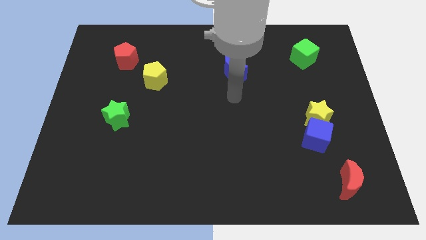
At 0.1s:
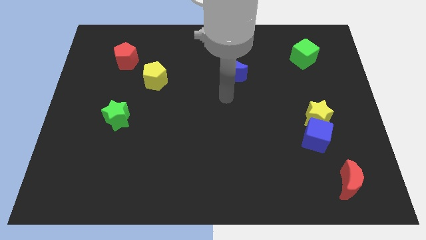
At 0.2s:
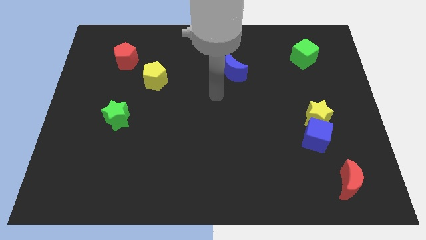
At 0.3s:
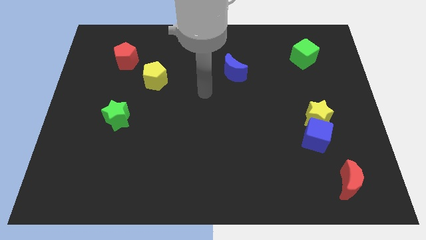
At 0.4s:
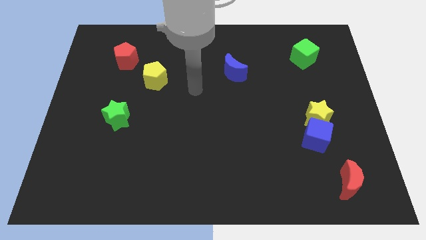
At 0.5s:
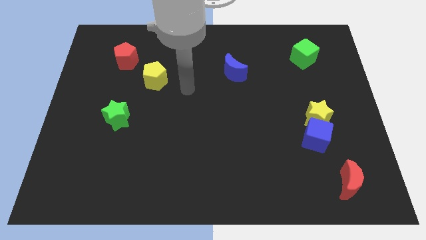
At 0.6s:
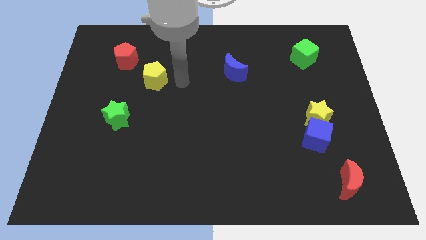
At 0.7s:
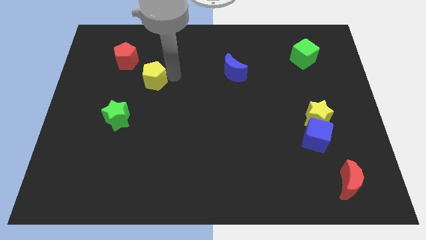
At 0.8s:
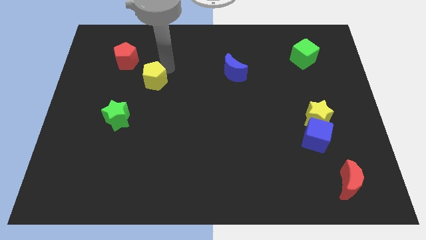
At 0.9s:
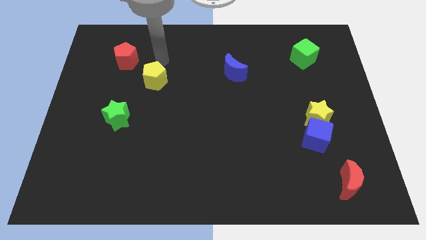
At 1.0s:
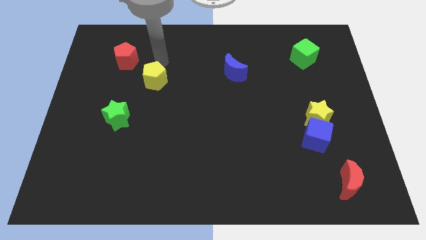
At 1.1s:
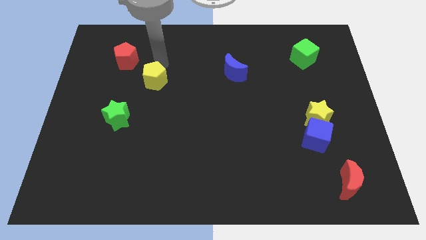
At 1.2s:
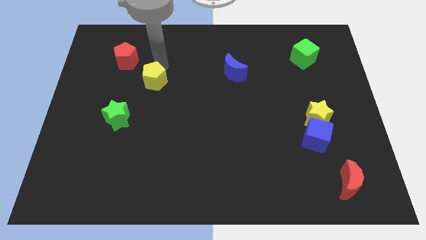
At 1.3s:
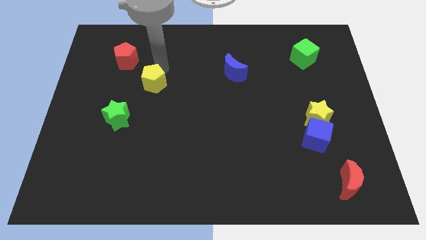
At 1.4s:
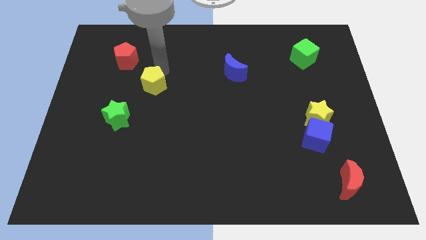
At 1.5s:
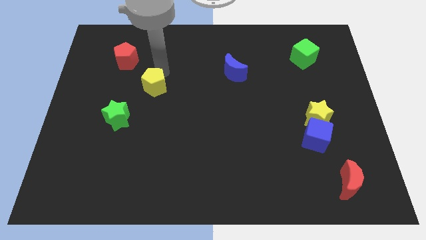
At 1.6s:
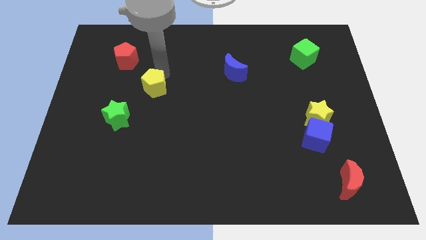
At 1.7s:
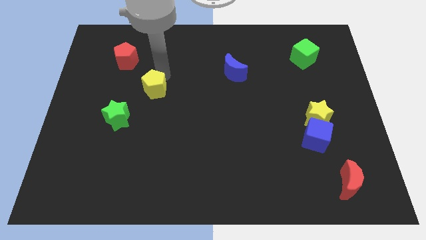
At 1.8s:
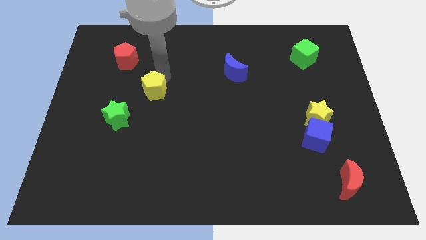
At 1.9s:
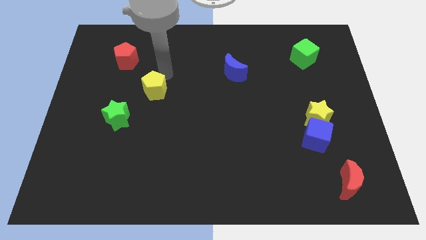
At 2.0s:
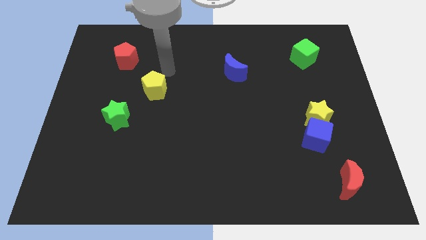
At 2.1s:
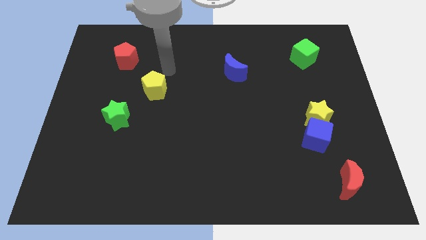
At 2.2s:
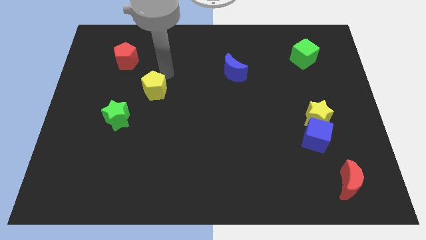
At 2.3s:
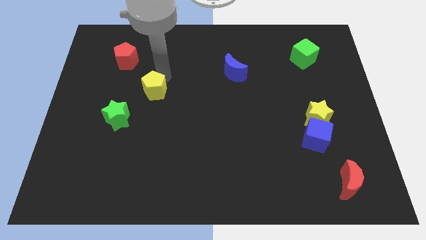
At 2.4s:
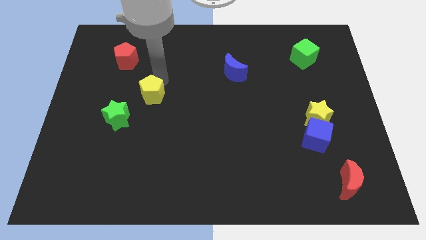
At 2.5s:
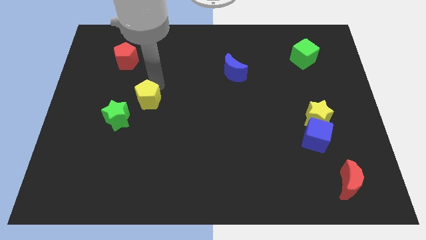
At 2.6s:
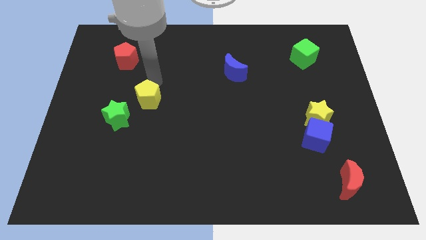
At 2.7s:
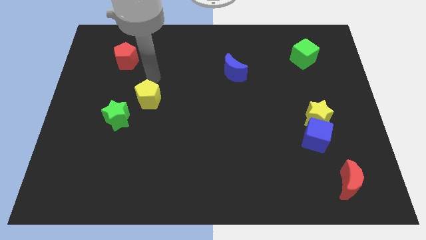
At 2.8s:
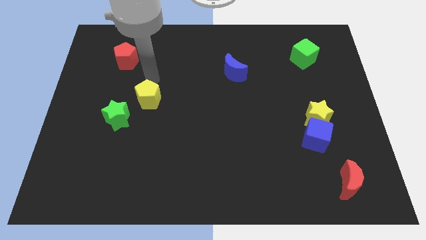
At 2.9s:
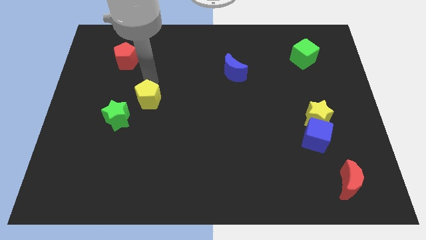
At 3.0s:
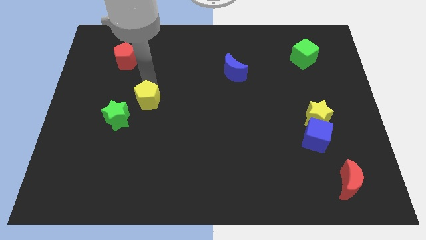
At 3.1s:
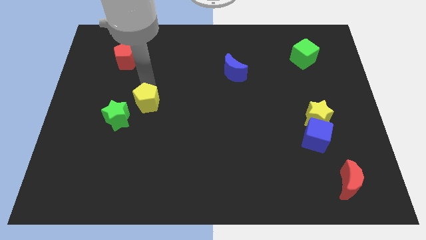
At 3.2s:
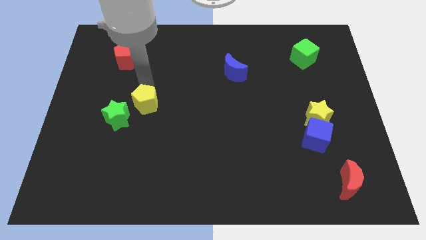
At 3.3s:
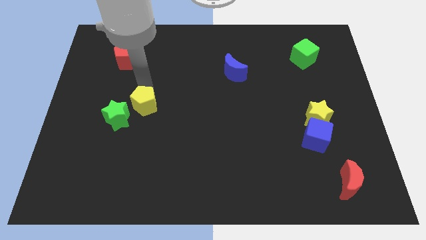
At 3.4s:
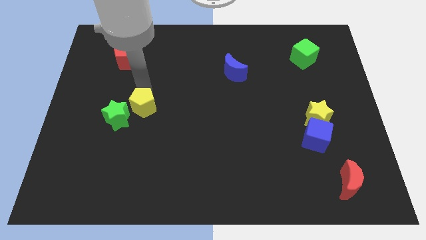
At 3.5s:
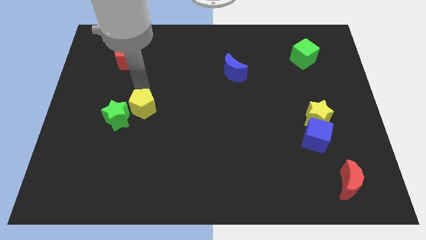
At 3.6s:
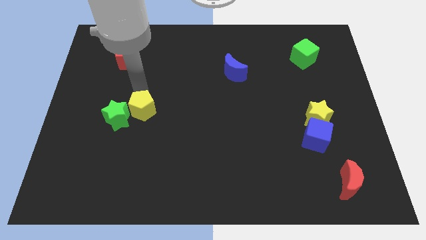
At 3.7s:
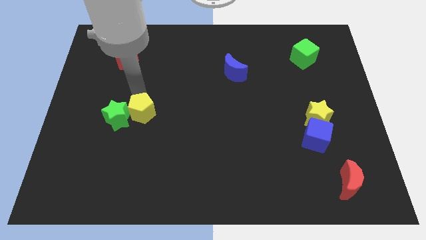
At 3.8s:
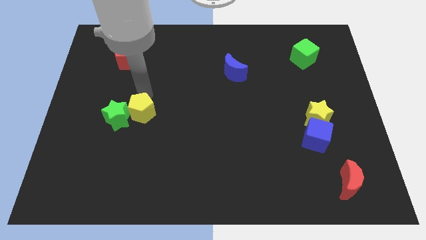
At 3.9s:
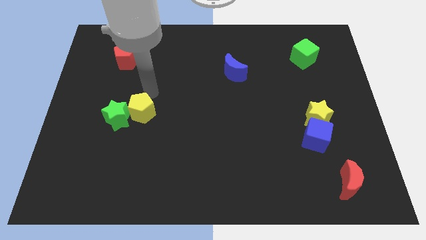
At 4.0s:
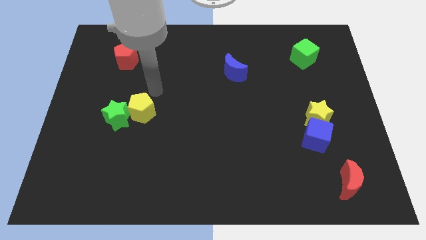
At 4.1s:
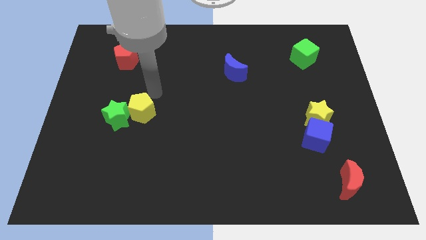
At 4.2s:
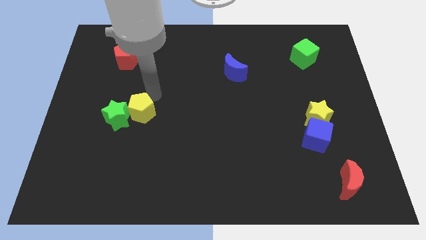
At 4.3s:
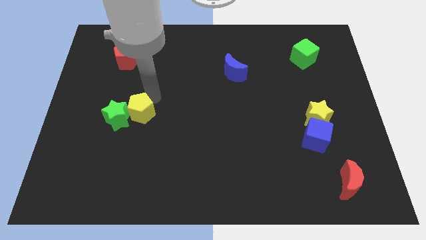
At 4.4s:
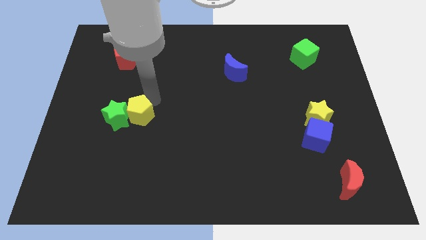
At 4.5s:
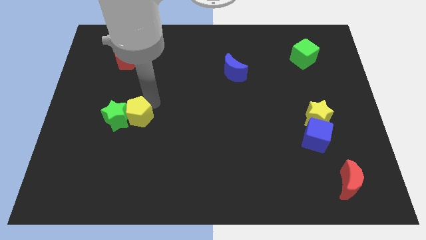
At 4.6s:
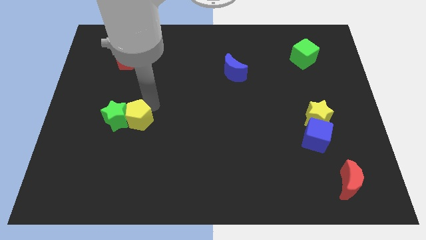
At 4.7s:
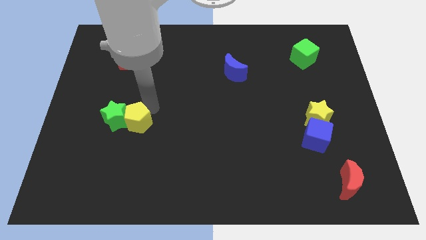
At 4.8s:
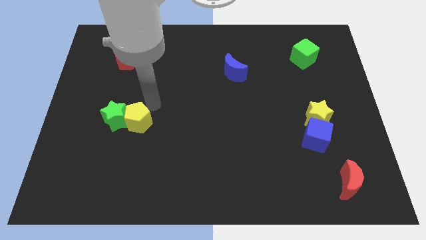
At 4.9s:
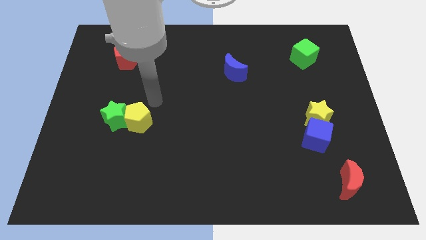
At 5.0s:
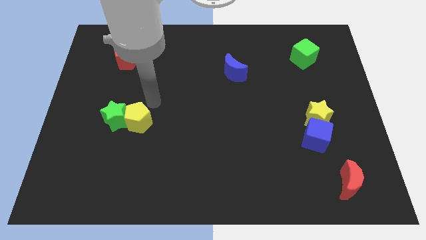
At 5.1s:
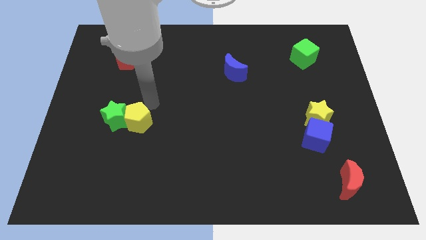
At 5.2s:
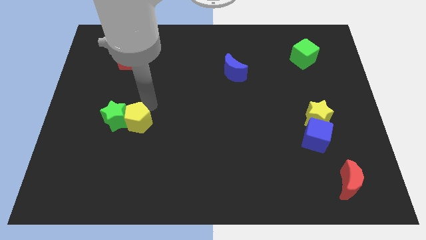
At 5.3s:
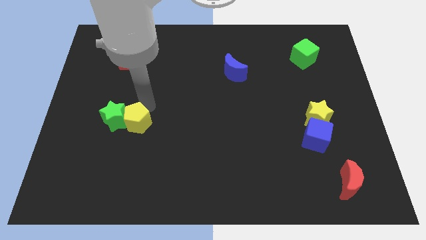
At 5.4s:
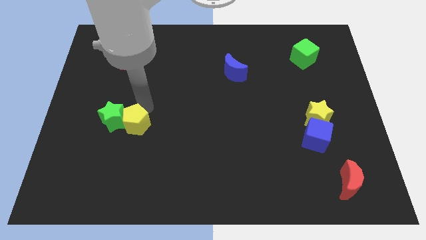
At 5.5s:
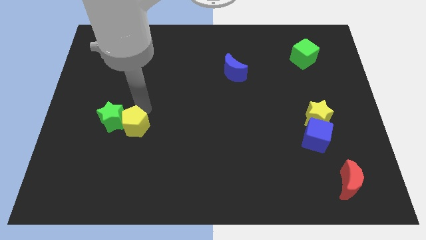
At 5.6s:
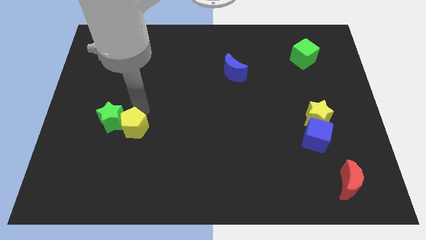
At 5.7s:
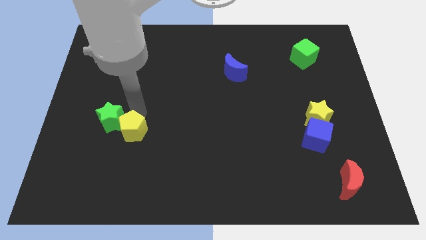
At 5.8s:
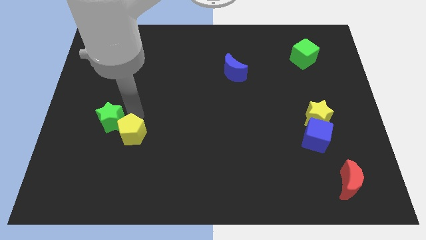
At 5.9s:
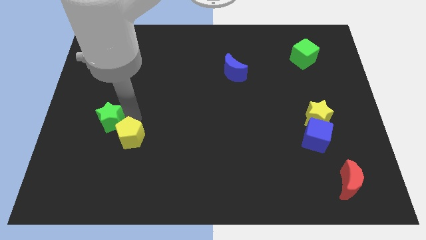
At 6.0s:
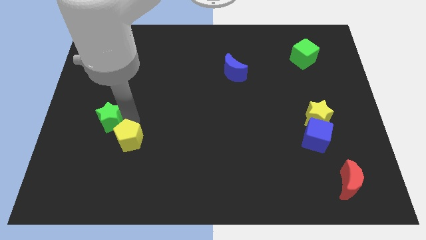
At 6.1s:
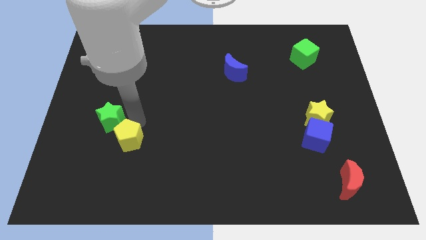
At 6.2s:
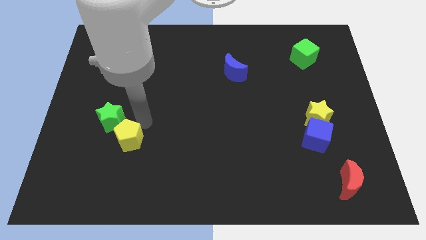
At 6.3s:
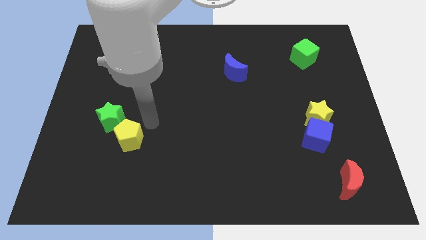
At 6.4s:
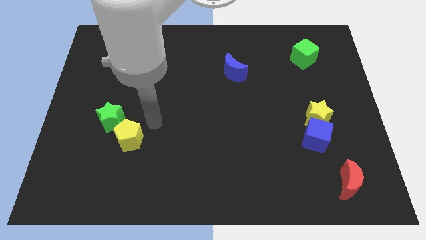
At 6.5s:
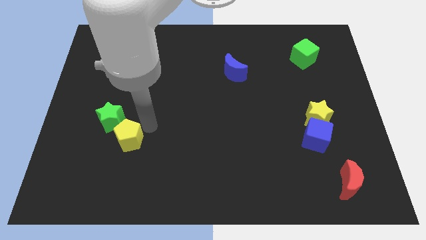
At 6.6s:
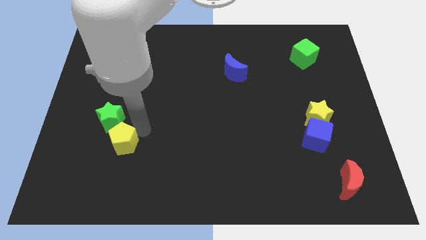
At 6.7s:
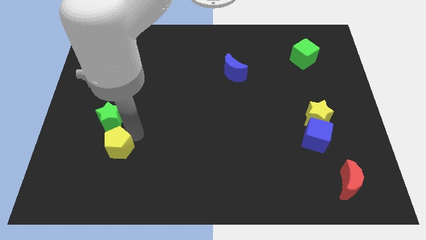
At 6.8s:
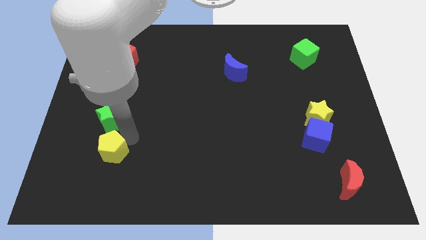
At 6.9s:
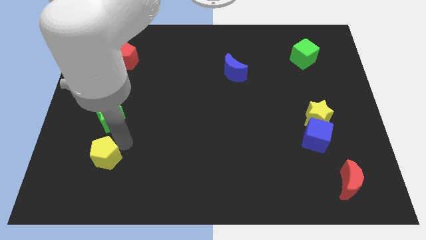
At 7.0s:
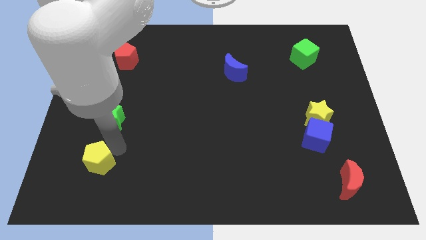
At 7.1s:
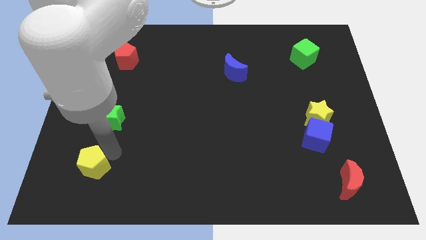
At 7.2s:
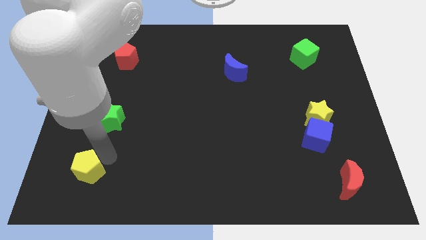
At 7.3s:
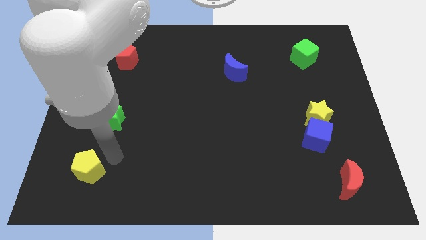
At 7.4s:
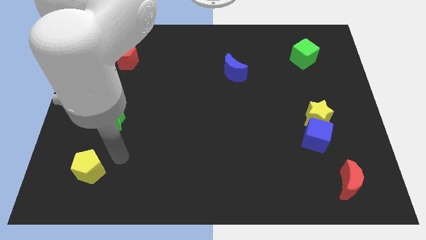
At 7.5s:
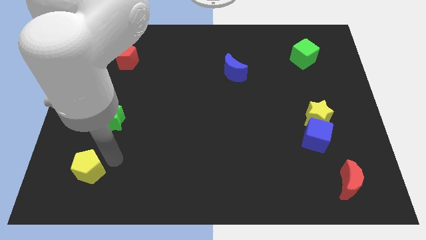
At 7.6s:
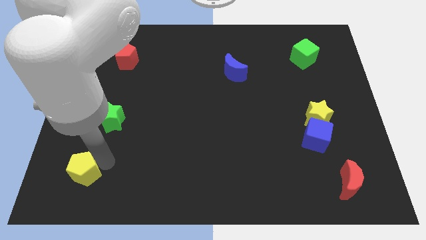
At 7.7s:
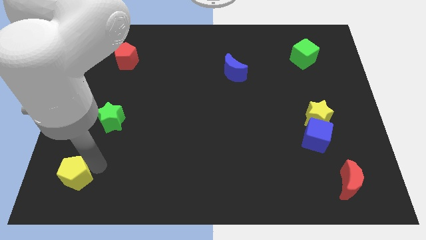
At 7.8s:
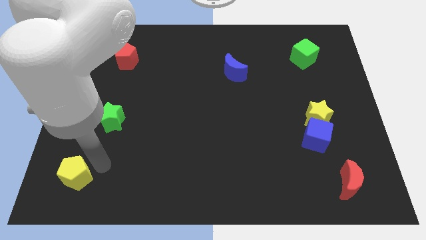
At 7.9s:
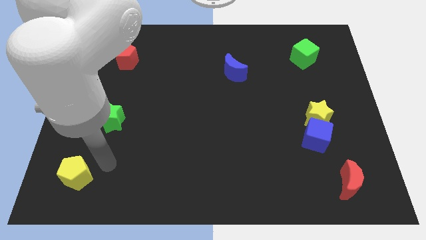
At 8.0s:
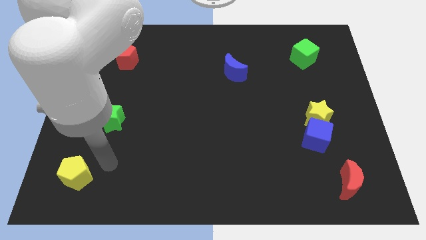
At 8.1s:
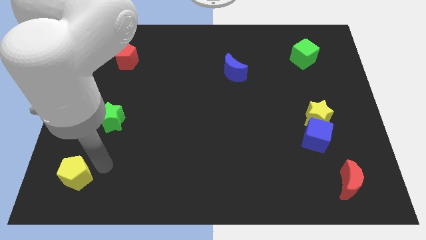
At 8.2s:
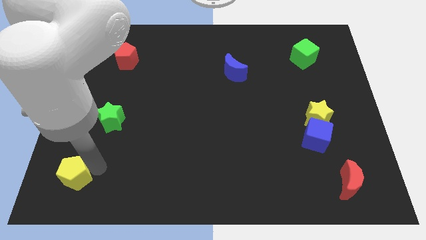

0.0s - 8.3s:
put the yellow pentagon to the bottom left
